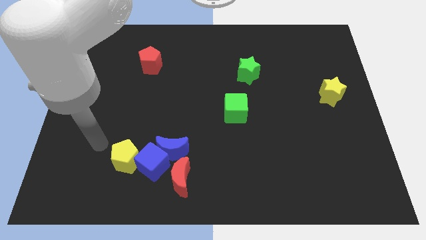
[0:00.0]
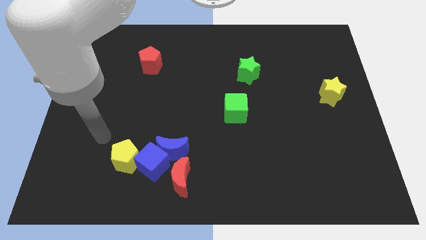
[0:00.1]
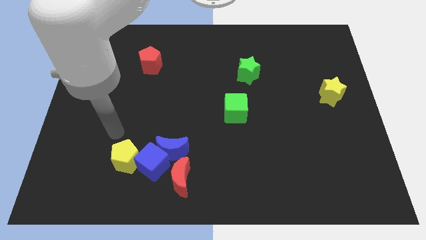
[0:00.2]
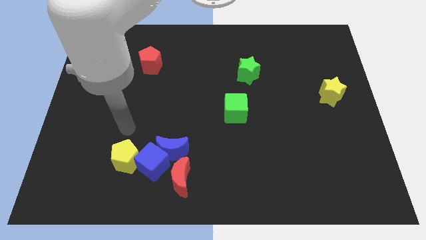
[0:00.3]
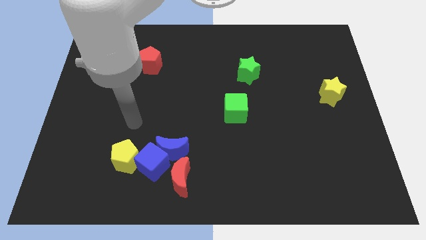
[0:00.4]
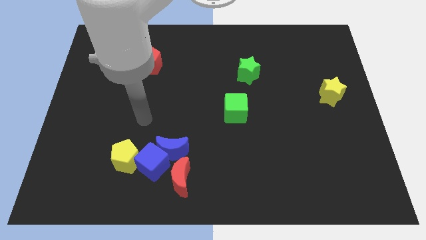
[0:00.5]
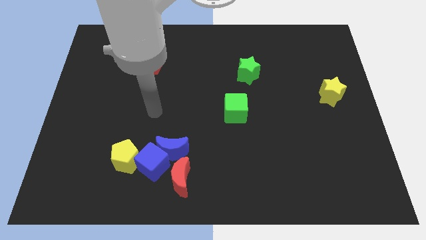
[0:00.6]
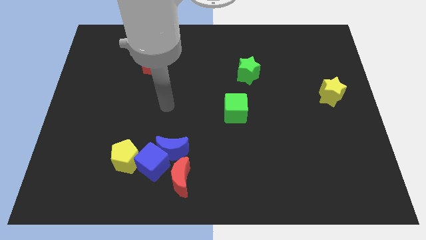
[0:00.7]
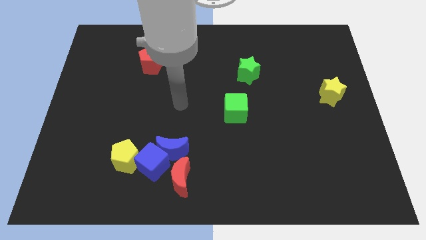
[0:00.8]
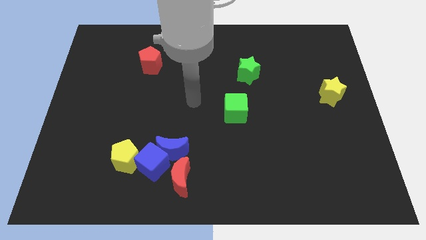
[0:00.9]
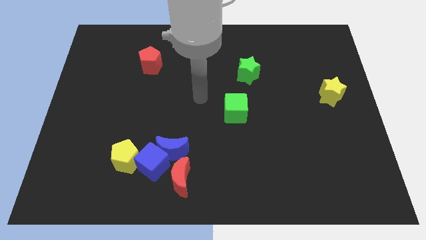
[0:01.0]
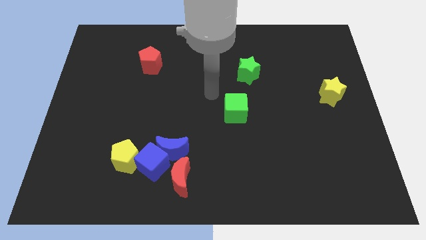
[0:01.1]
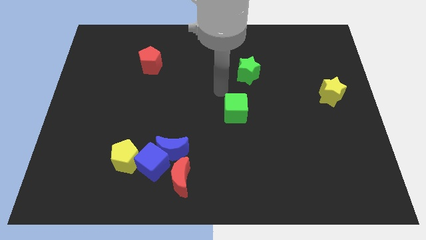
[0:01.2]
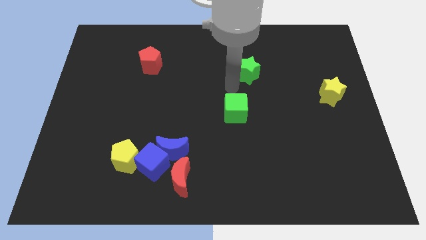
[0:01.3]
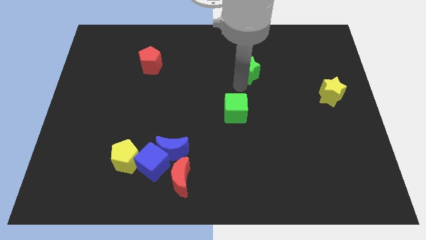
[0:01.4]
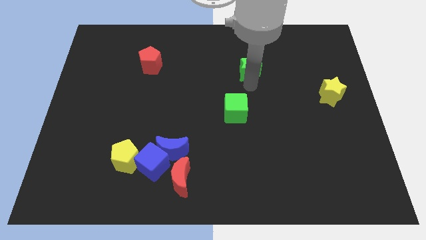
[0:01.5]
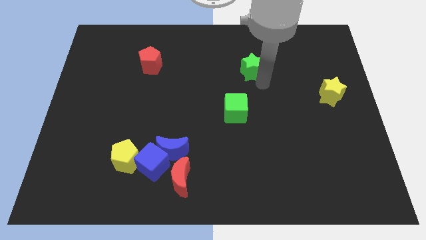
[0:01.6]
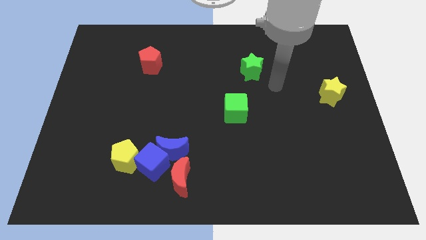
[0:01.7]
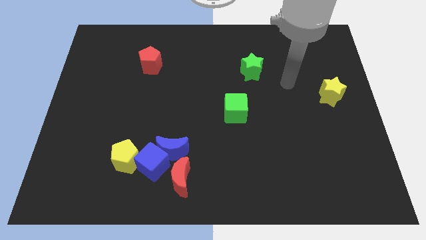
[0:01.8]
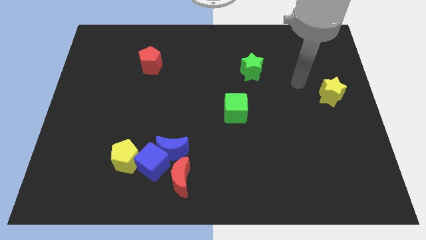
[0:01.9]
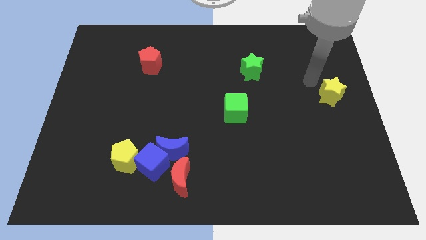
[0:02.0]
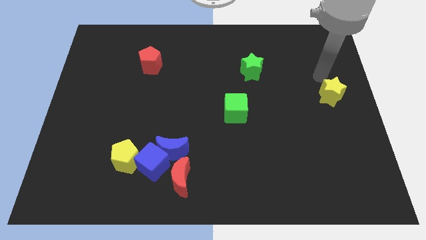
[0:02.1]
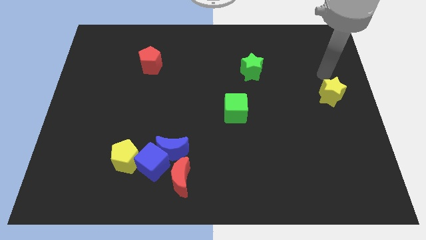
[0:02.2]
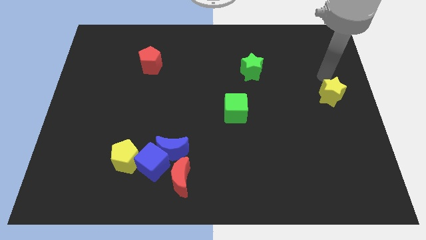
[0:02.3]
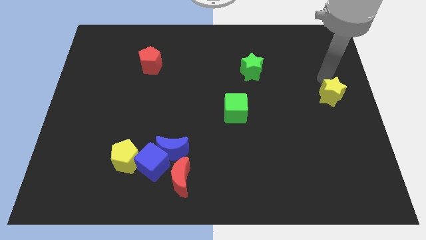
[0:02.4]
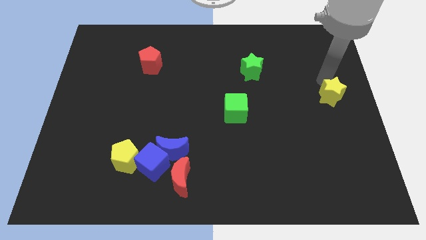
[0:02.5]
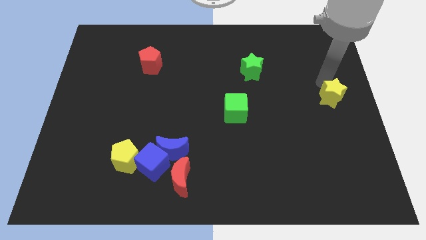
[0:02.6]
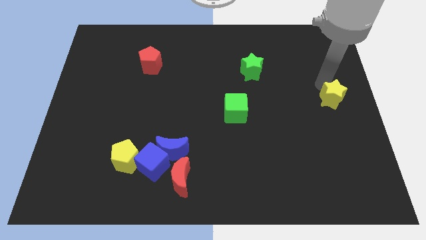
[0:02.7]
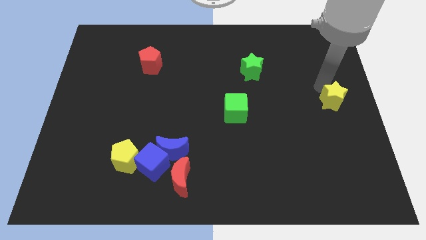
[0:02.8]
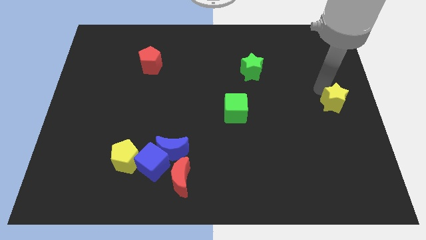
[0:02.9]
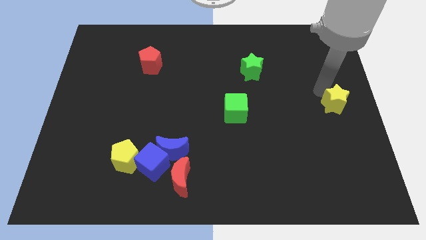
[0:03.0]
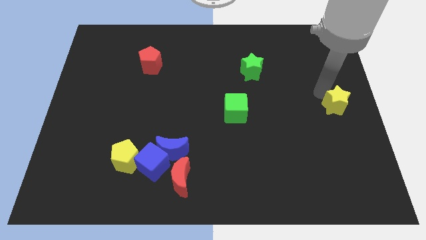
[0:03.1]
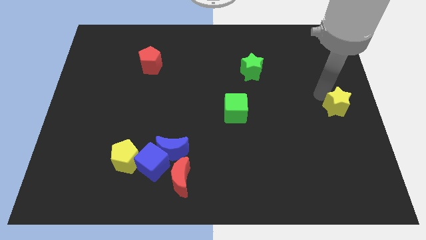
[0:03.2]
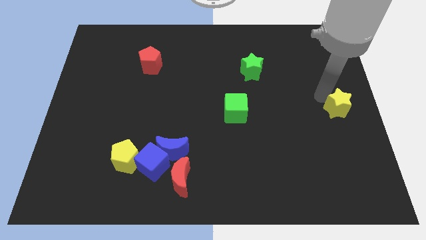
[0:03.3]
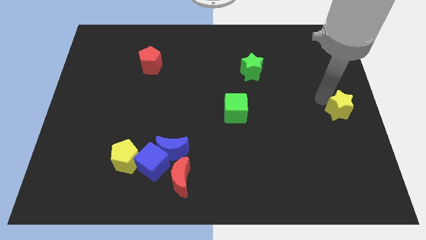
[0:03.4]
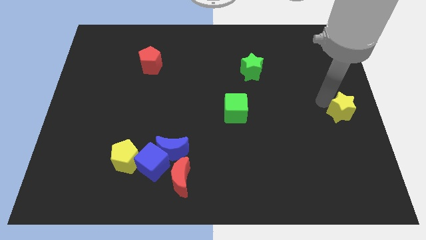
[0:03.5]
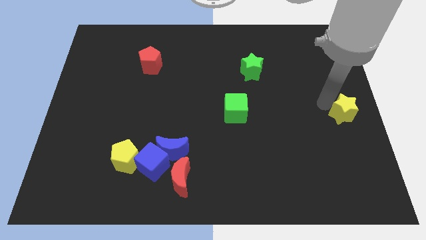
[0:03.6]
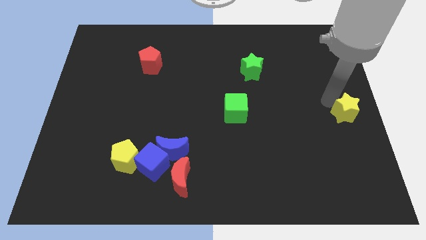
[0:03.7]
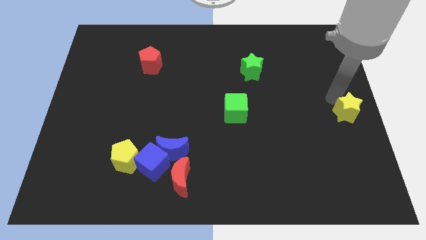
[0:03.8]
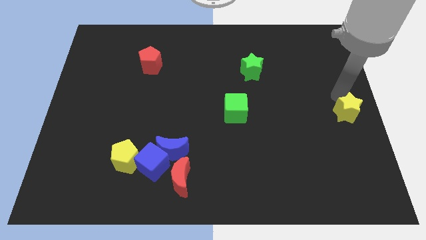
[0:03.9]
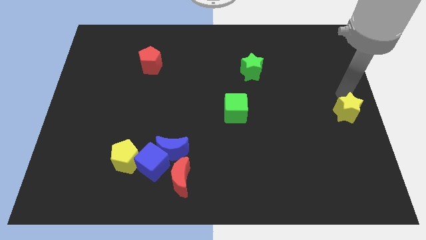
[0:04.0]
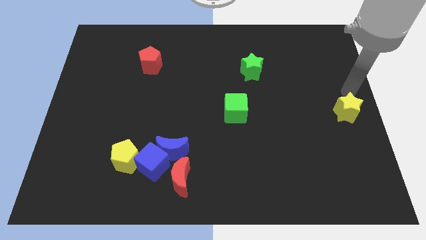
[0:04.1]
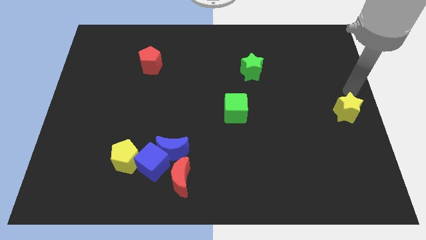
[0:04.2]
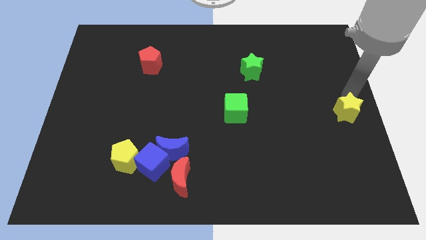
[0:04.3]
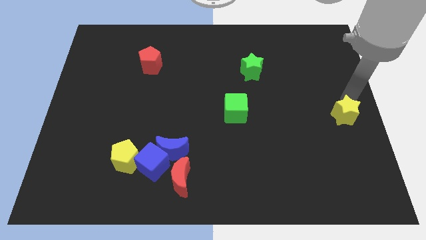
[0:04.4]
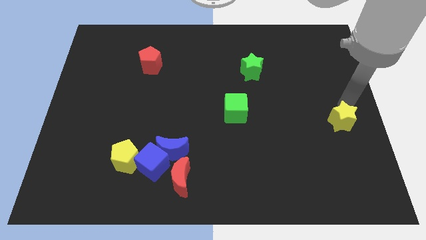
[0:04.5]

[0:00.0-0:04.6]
move the yellow star down slightly

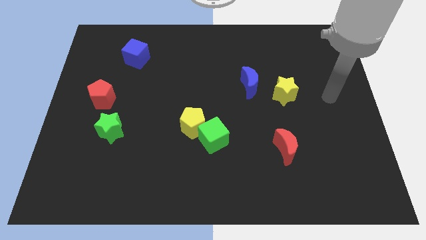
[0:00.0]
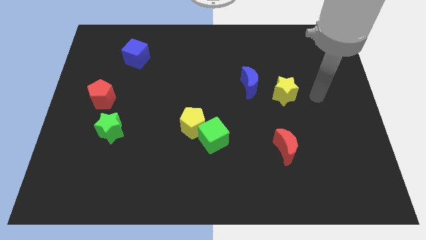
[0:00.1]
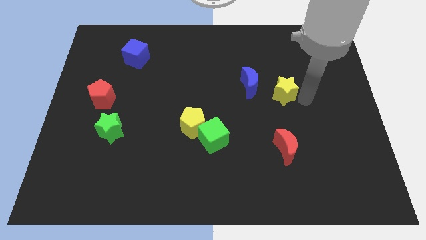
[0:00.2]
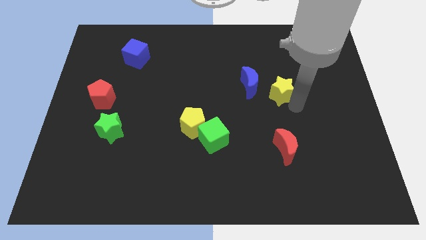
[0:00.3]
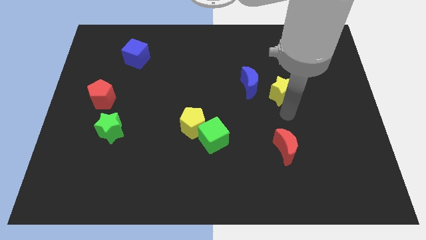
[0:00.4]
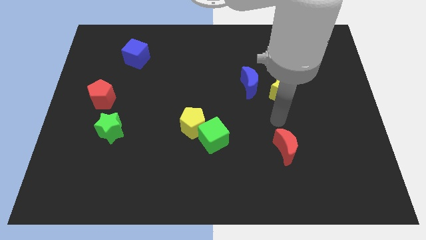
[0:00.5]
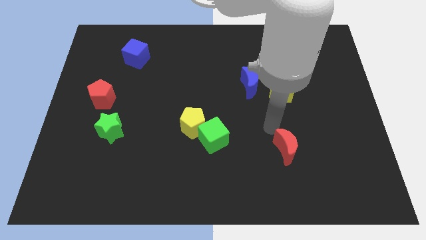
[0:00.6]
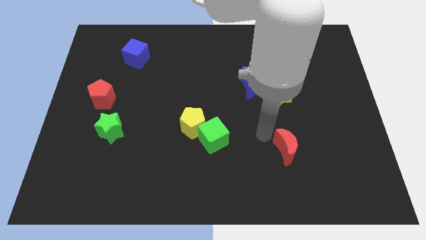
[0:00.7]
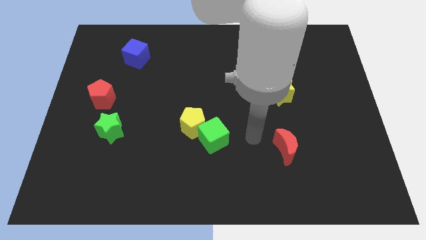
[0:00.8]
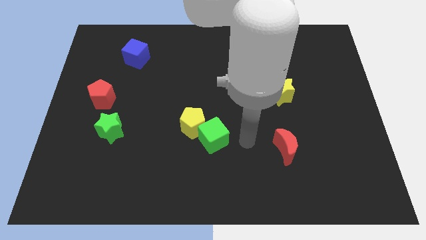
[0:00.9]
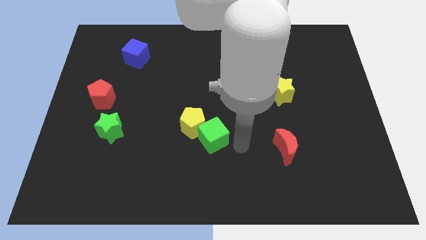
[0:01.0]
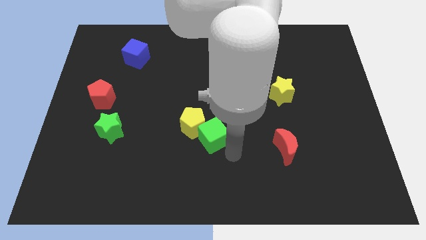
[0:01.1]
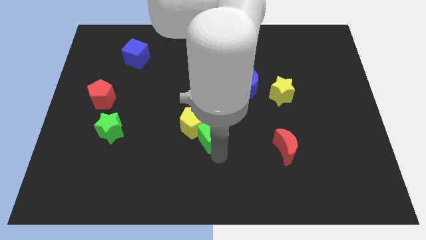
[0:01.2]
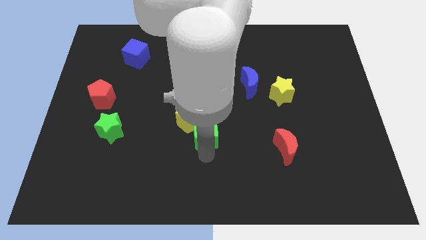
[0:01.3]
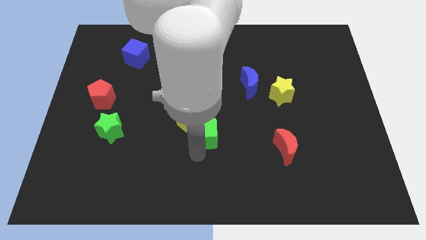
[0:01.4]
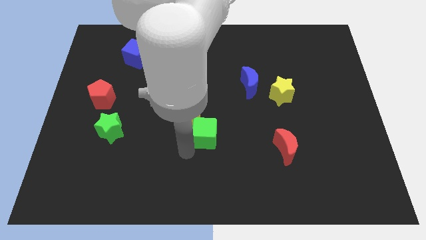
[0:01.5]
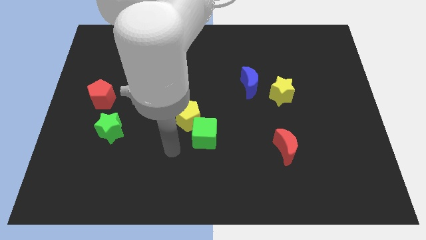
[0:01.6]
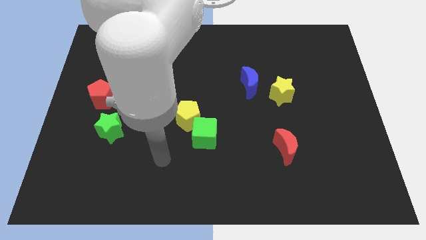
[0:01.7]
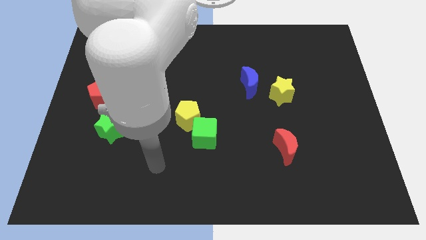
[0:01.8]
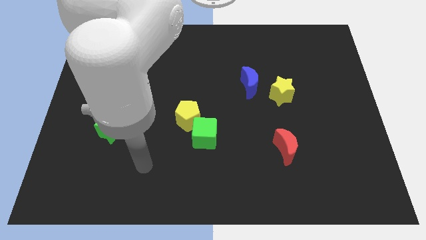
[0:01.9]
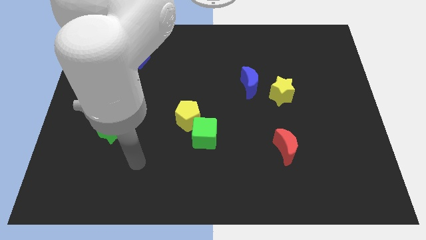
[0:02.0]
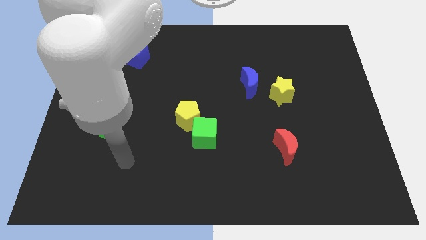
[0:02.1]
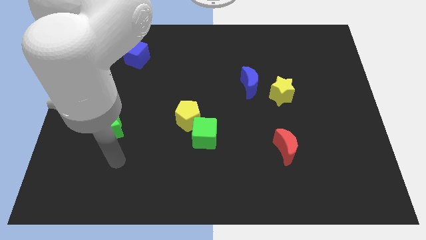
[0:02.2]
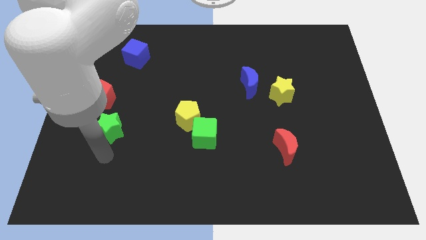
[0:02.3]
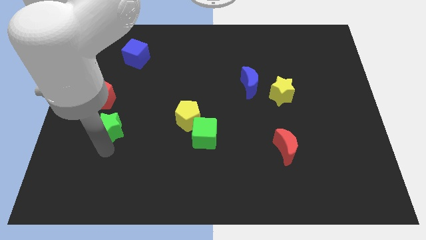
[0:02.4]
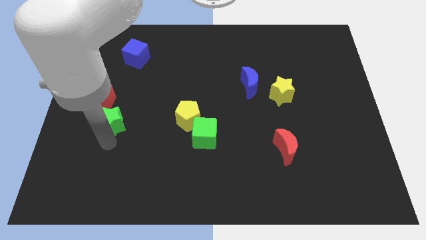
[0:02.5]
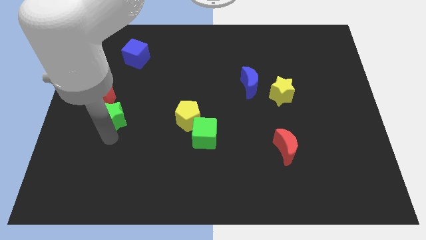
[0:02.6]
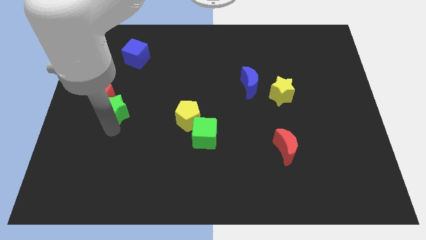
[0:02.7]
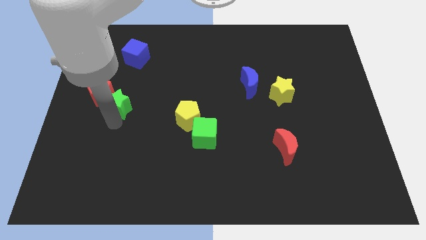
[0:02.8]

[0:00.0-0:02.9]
move the green star somewhat upwards

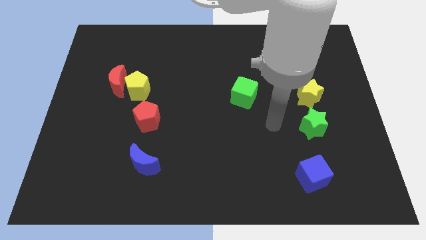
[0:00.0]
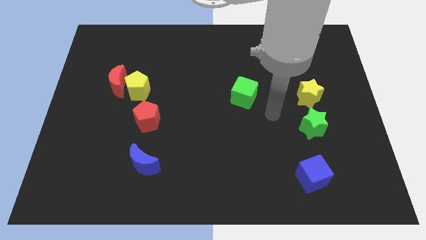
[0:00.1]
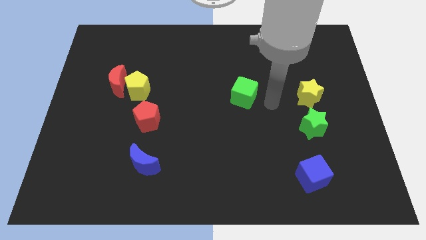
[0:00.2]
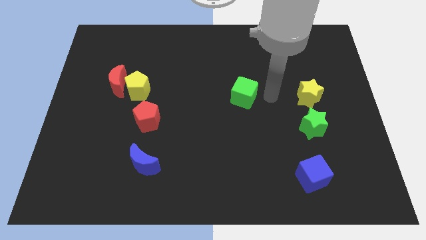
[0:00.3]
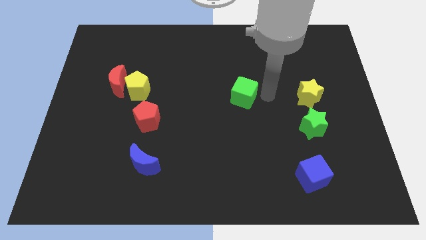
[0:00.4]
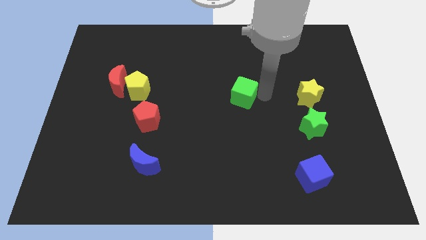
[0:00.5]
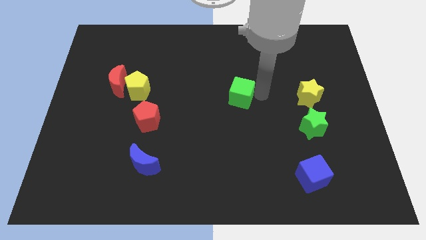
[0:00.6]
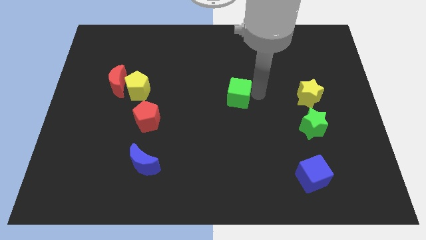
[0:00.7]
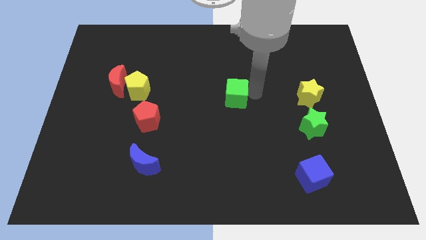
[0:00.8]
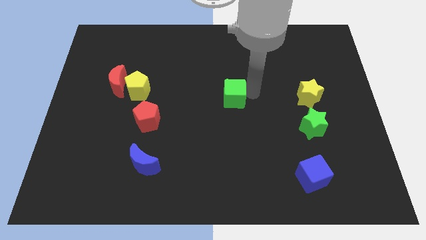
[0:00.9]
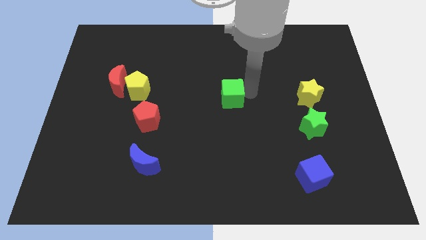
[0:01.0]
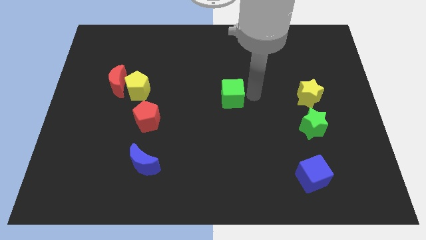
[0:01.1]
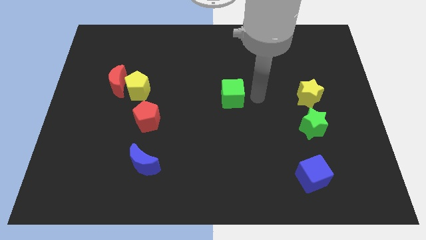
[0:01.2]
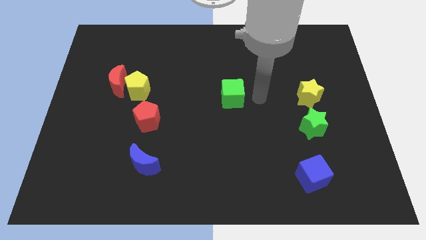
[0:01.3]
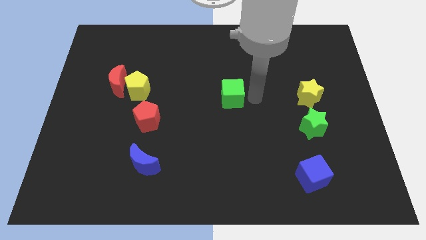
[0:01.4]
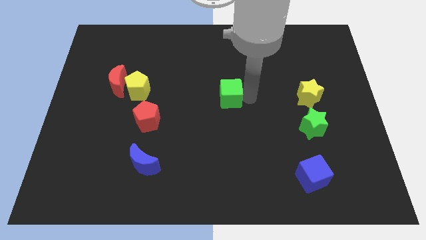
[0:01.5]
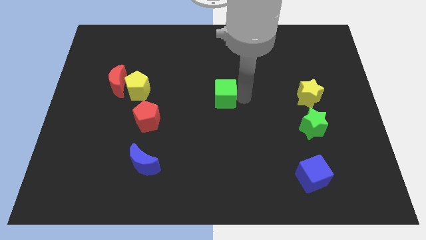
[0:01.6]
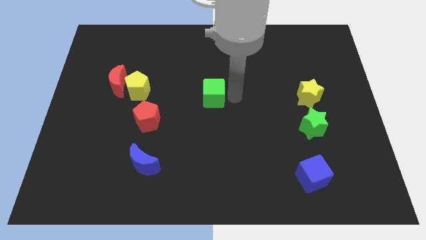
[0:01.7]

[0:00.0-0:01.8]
slightly push the green cube to the left
